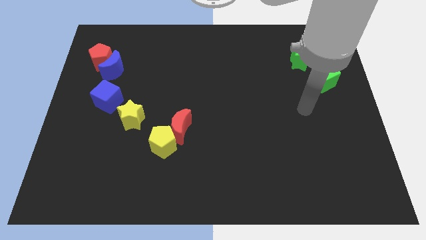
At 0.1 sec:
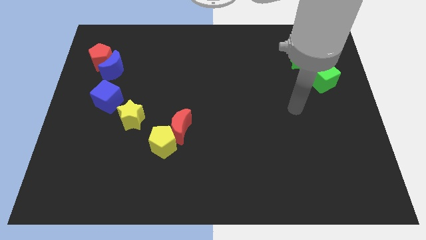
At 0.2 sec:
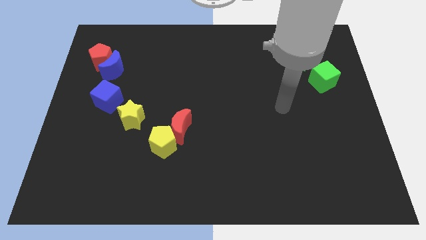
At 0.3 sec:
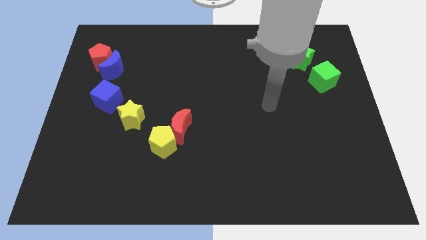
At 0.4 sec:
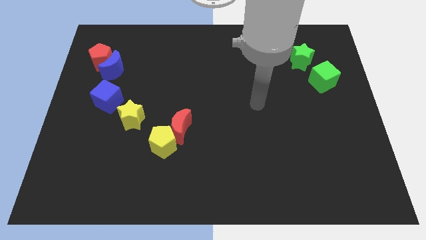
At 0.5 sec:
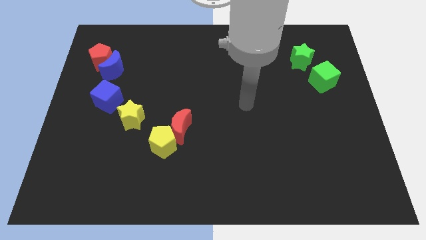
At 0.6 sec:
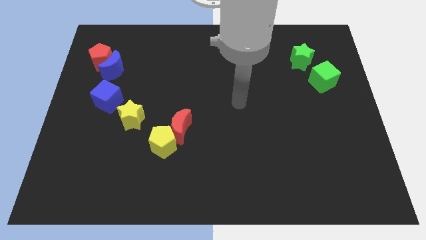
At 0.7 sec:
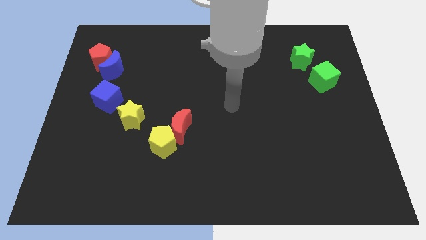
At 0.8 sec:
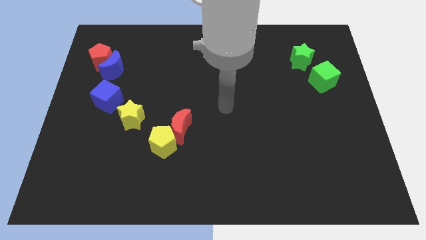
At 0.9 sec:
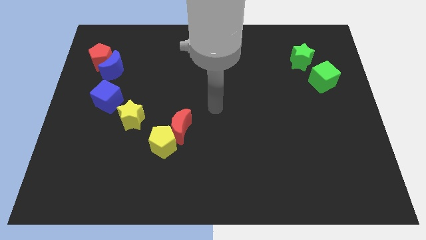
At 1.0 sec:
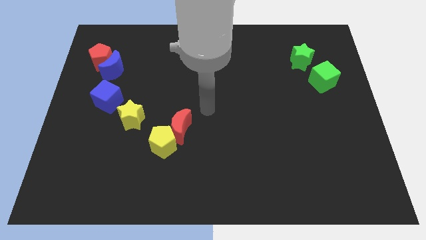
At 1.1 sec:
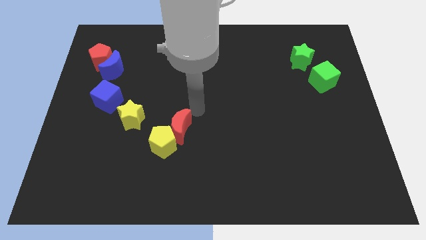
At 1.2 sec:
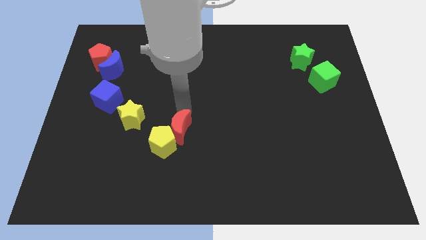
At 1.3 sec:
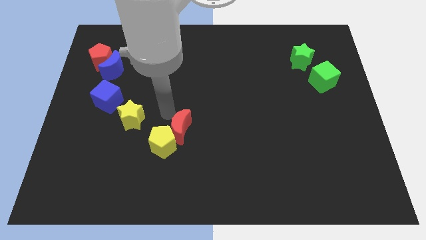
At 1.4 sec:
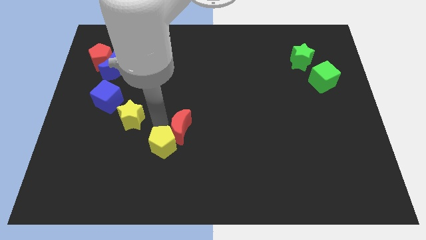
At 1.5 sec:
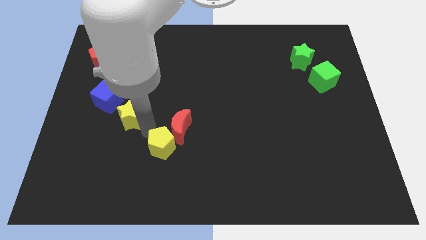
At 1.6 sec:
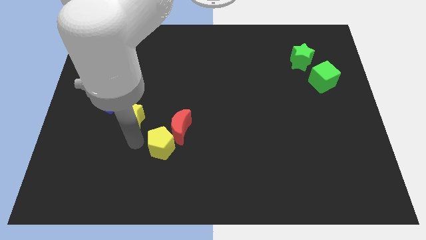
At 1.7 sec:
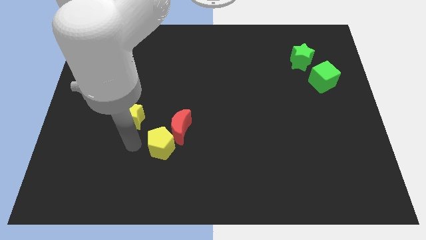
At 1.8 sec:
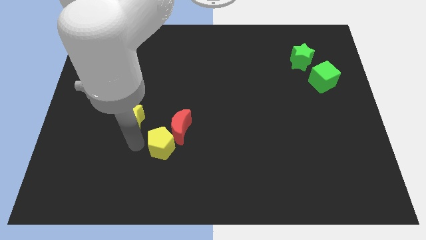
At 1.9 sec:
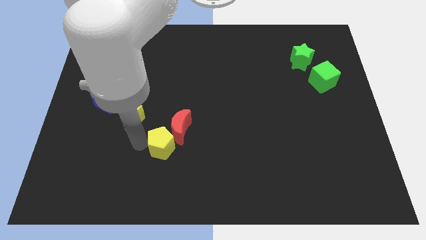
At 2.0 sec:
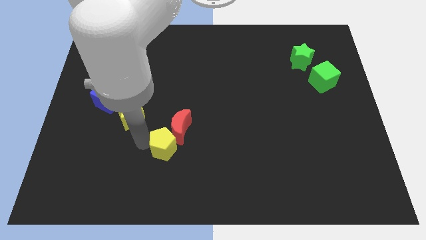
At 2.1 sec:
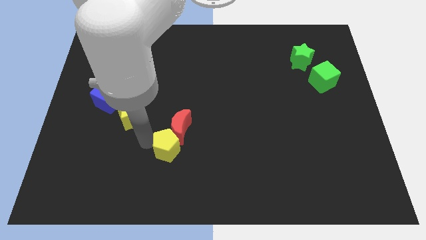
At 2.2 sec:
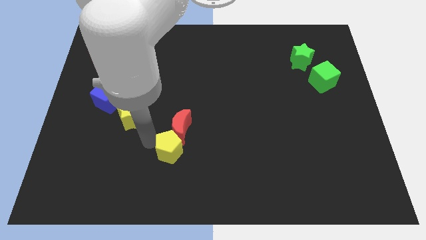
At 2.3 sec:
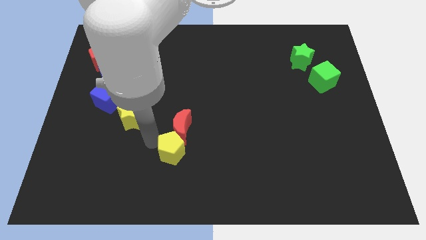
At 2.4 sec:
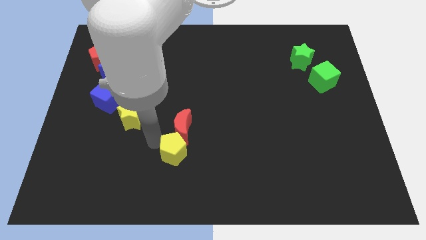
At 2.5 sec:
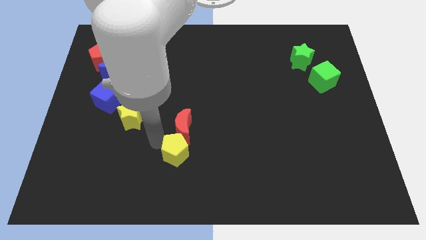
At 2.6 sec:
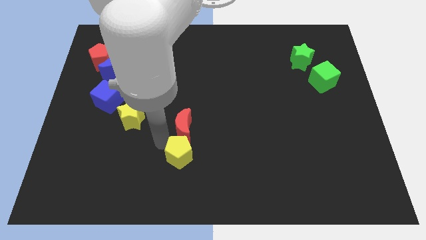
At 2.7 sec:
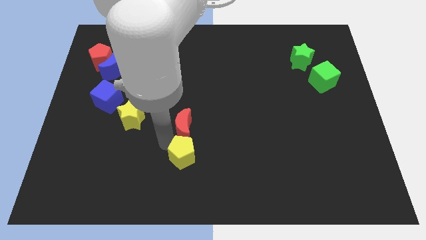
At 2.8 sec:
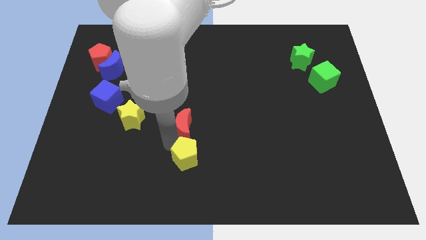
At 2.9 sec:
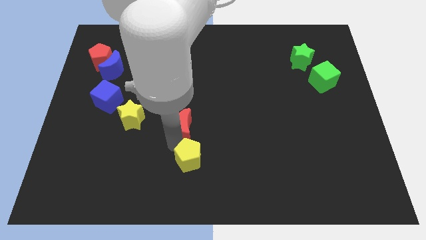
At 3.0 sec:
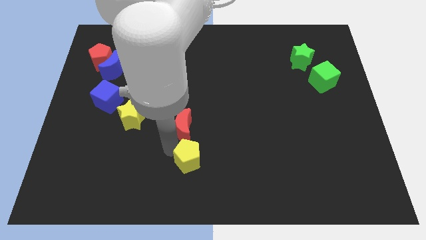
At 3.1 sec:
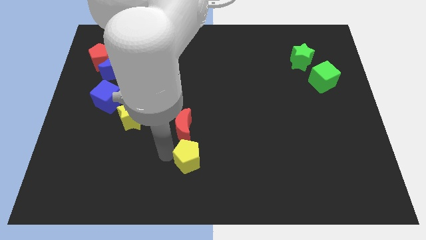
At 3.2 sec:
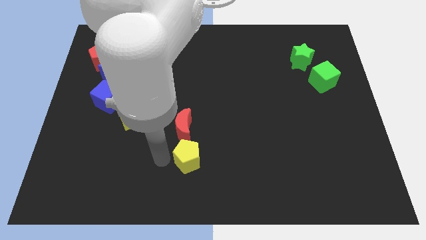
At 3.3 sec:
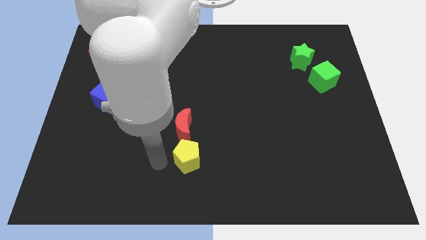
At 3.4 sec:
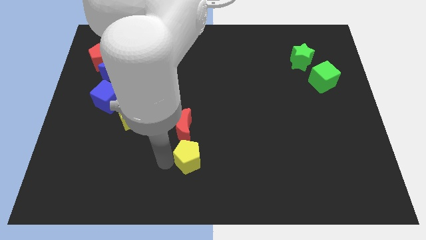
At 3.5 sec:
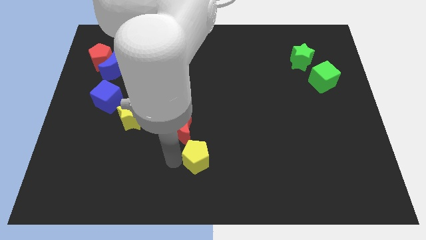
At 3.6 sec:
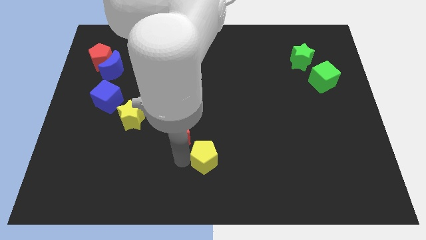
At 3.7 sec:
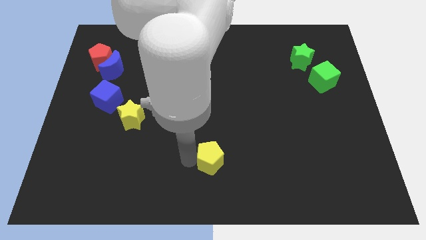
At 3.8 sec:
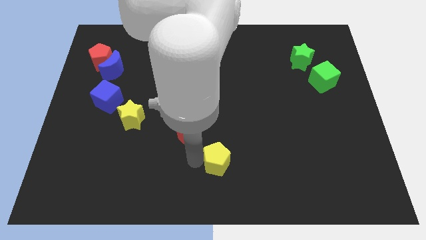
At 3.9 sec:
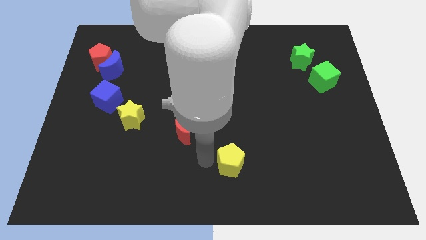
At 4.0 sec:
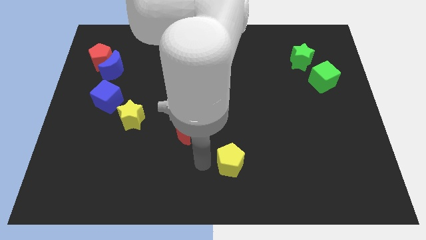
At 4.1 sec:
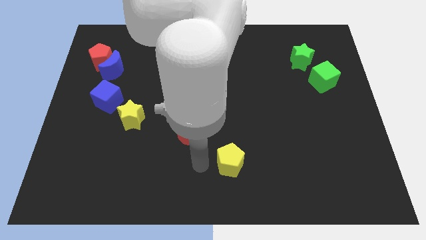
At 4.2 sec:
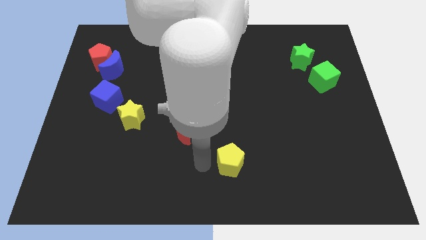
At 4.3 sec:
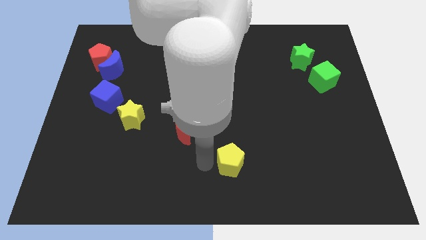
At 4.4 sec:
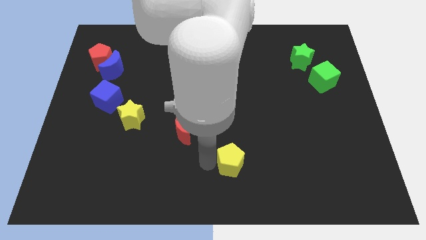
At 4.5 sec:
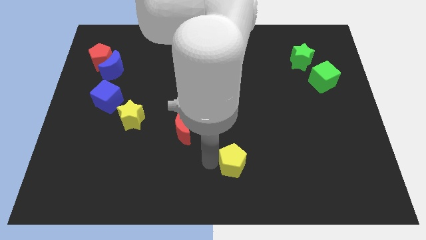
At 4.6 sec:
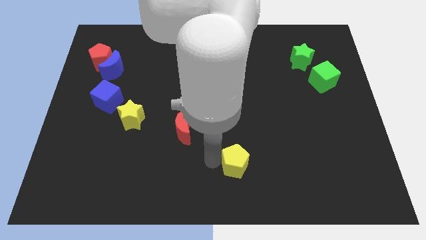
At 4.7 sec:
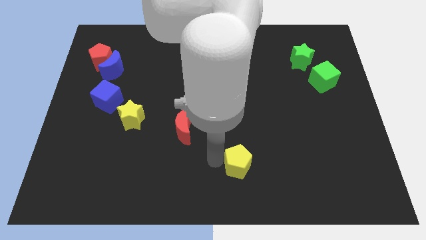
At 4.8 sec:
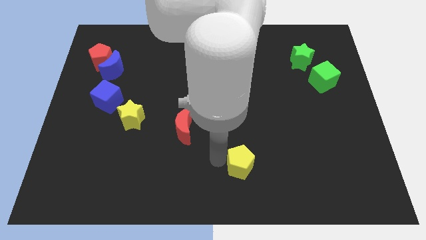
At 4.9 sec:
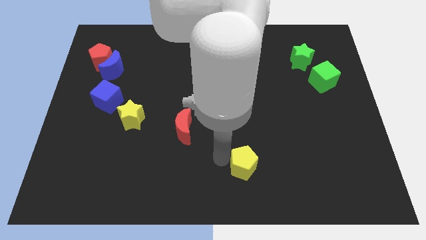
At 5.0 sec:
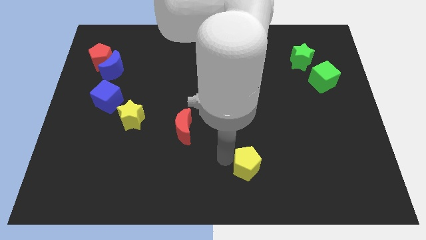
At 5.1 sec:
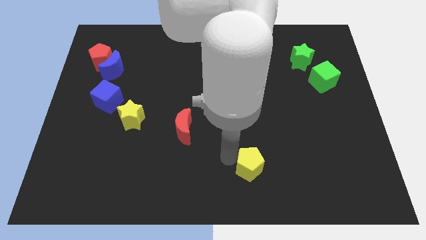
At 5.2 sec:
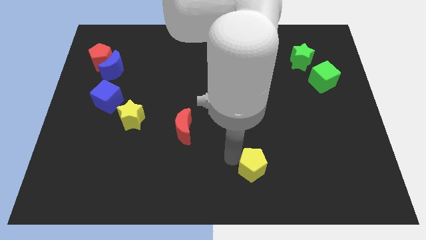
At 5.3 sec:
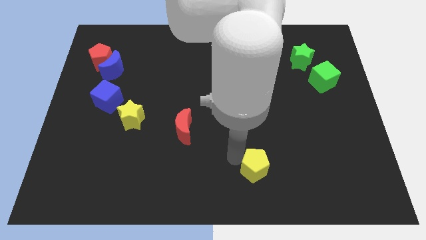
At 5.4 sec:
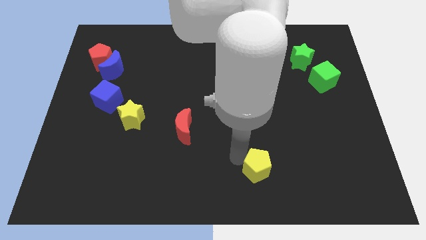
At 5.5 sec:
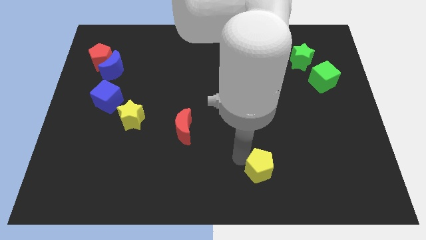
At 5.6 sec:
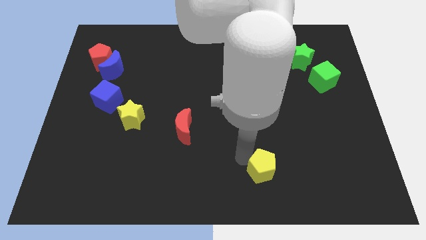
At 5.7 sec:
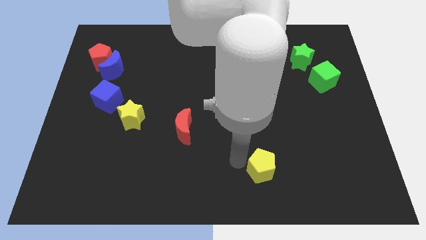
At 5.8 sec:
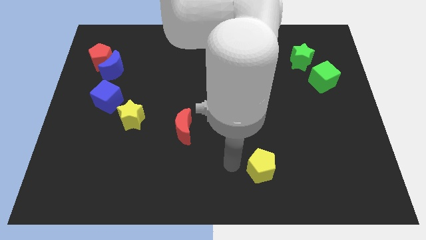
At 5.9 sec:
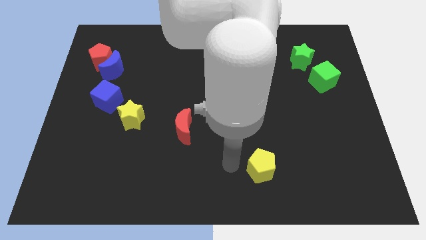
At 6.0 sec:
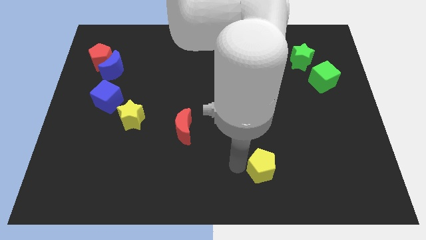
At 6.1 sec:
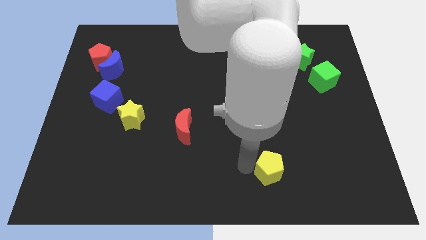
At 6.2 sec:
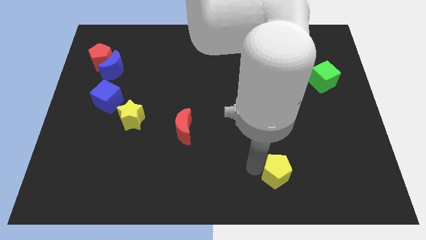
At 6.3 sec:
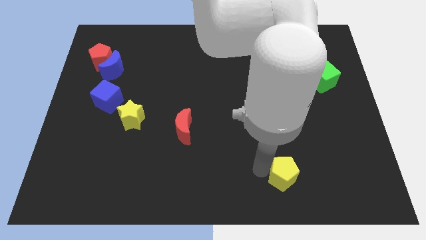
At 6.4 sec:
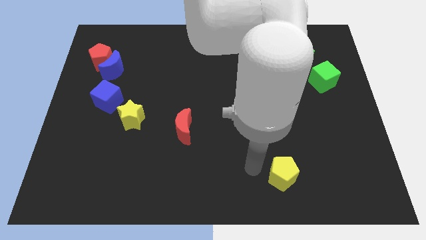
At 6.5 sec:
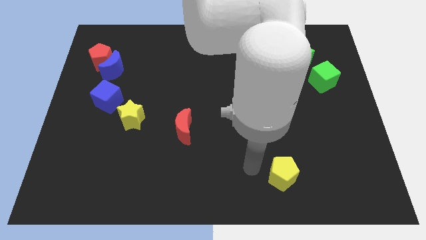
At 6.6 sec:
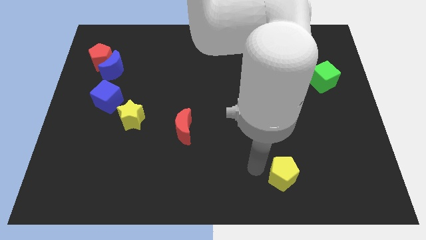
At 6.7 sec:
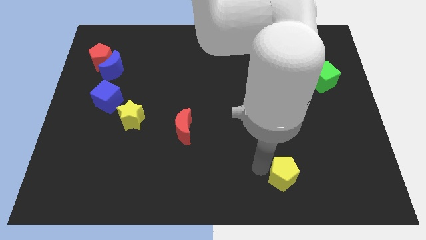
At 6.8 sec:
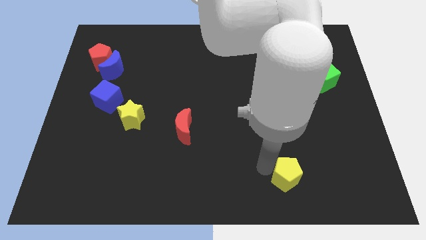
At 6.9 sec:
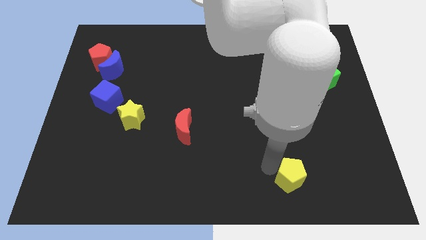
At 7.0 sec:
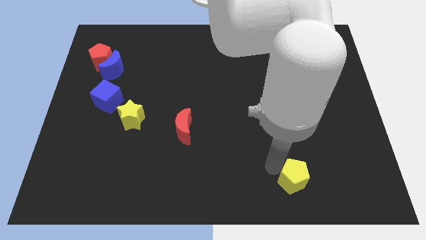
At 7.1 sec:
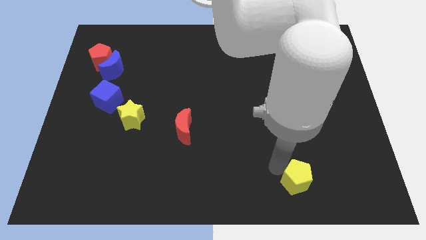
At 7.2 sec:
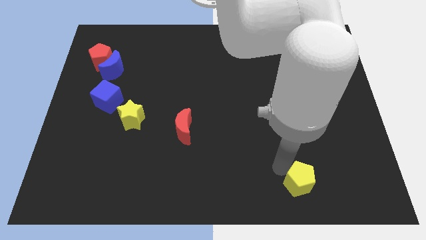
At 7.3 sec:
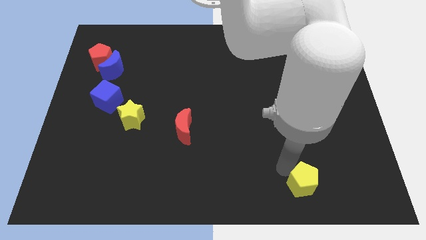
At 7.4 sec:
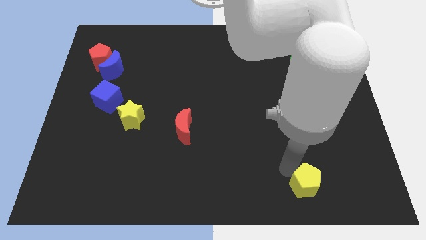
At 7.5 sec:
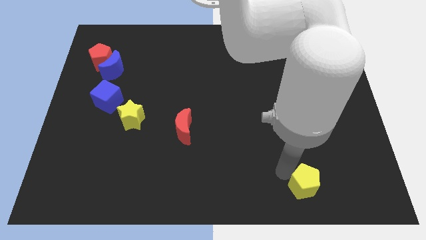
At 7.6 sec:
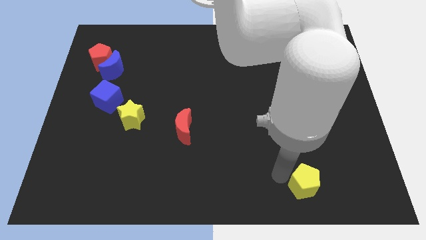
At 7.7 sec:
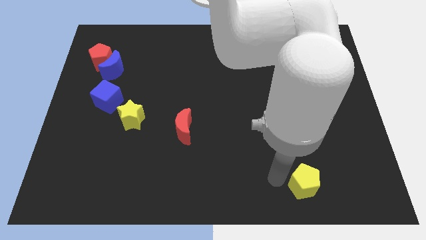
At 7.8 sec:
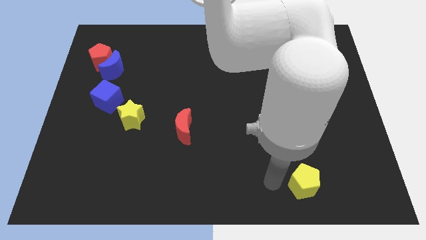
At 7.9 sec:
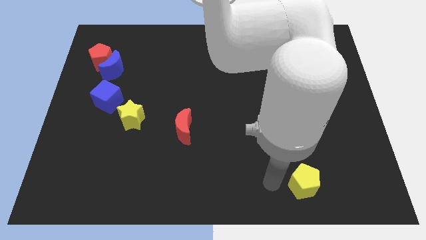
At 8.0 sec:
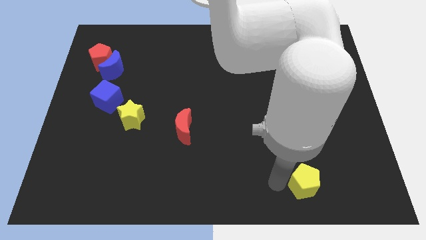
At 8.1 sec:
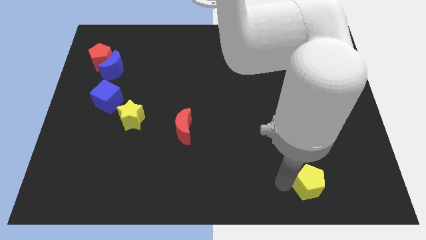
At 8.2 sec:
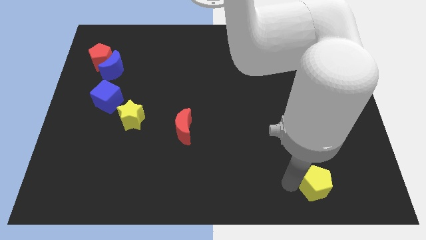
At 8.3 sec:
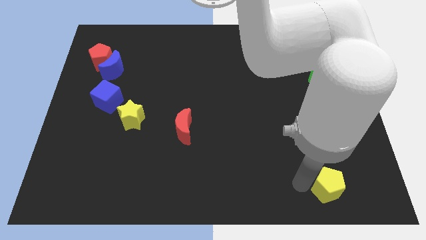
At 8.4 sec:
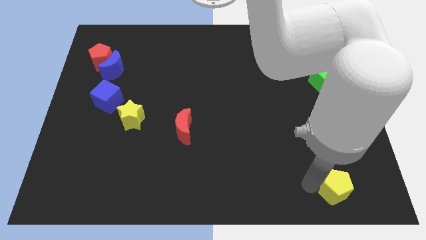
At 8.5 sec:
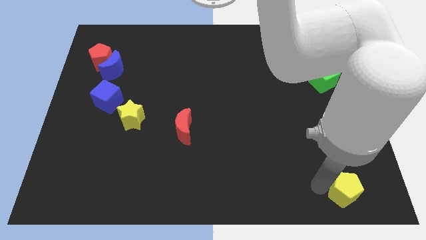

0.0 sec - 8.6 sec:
push the yellow pentagon to the bottom right
